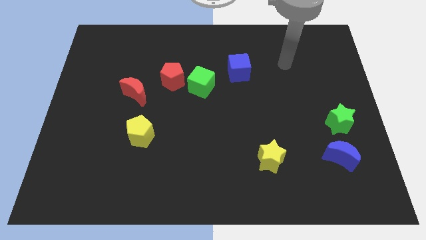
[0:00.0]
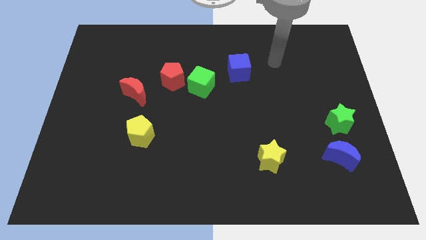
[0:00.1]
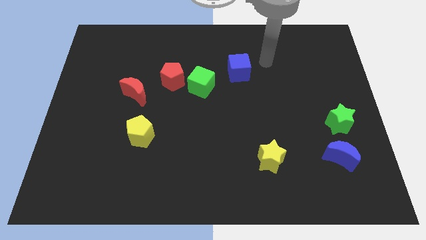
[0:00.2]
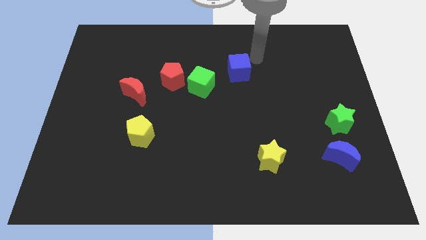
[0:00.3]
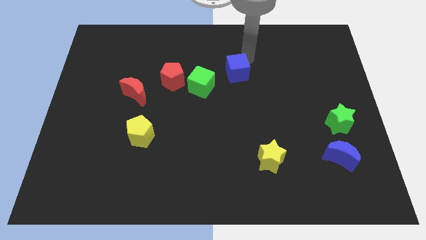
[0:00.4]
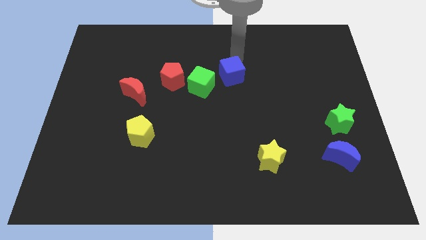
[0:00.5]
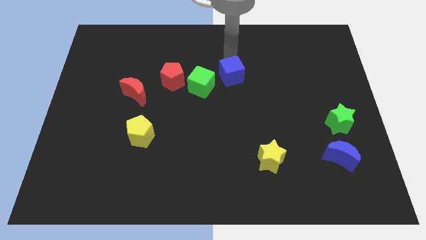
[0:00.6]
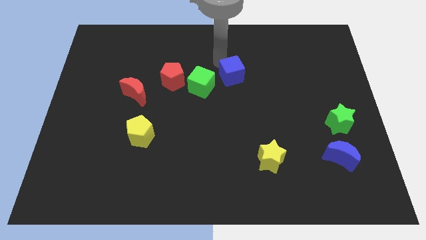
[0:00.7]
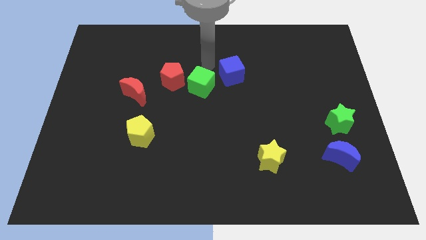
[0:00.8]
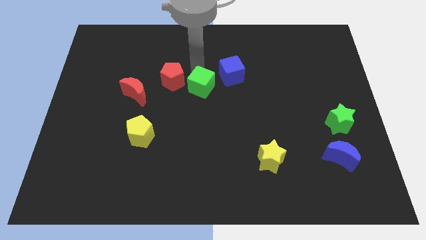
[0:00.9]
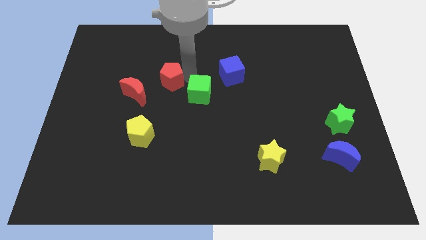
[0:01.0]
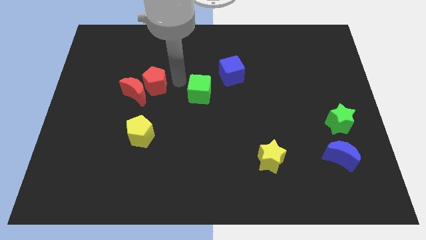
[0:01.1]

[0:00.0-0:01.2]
move the green cube away from the red pentagon

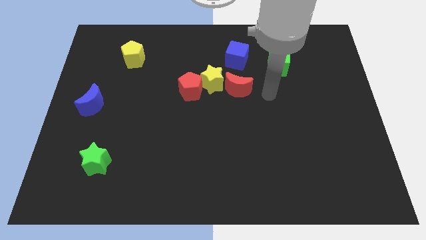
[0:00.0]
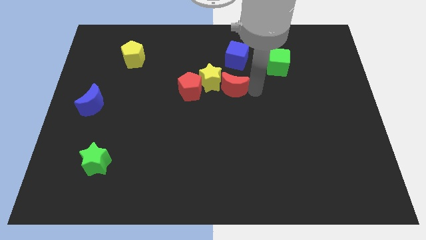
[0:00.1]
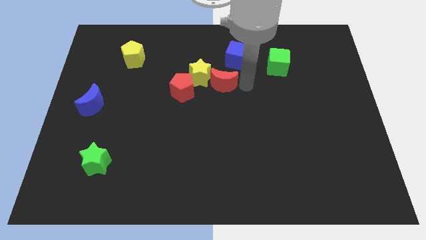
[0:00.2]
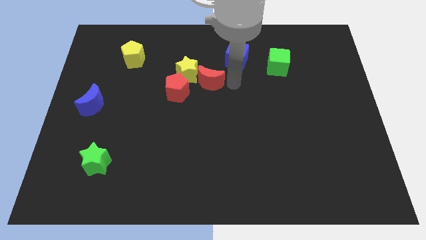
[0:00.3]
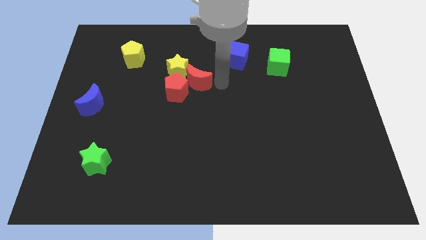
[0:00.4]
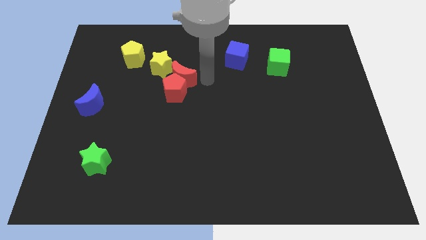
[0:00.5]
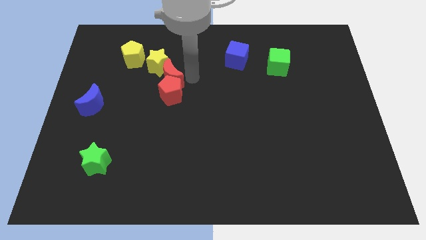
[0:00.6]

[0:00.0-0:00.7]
pull the red pentagon apart from the yellow star

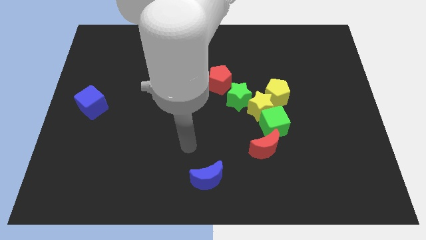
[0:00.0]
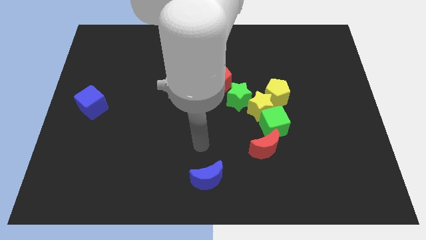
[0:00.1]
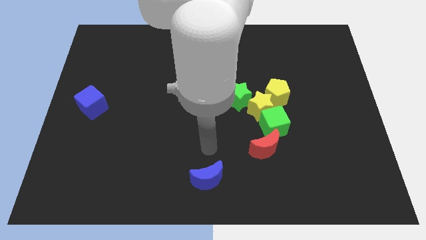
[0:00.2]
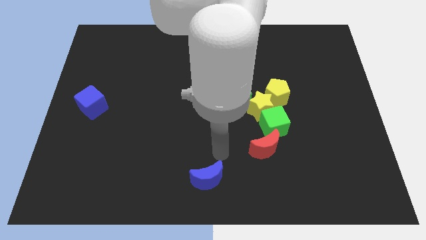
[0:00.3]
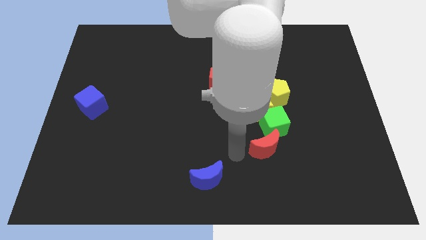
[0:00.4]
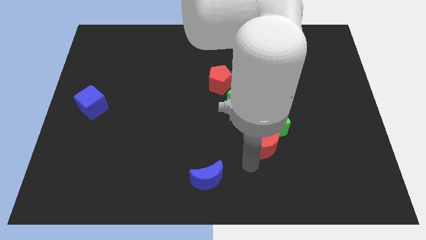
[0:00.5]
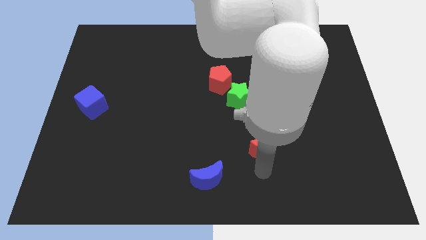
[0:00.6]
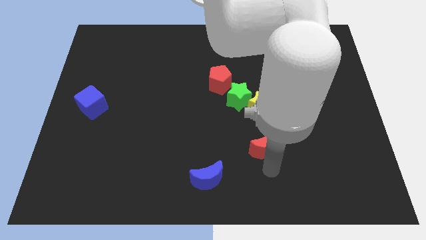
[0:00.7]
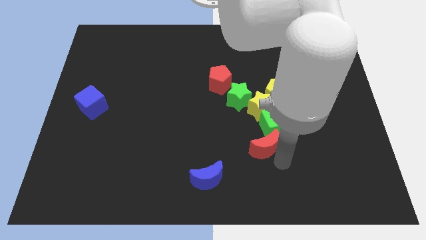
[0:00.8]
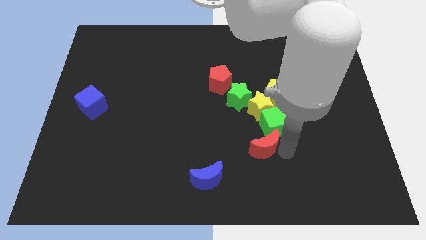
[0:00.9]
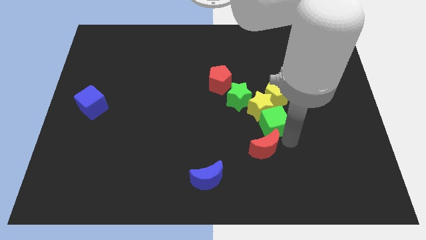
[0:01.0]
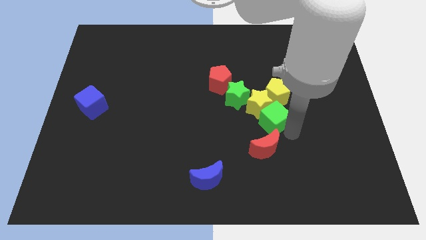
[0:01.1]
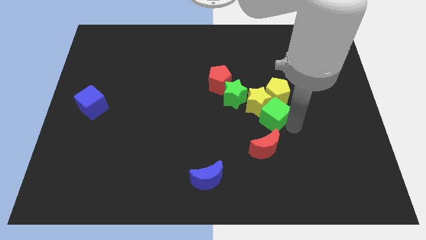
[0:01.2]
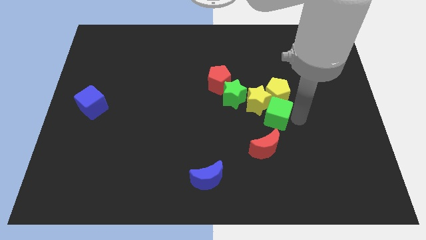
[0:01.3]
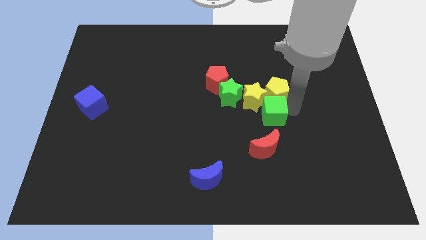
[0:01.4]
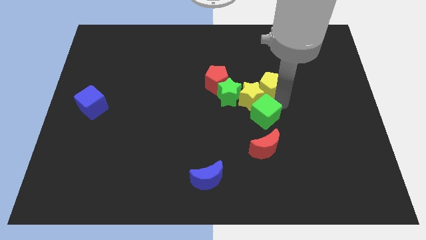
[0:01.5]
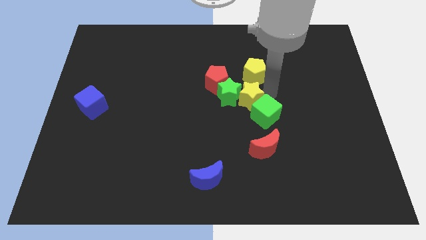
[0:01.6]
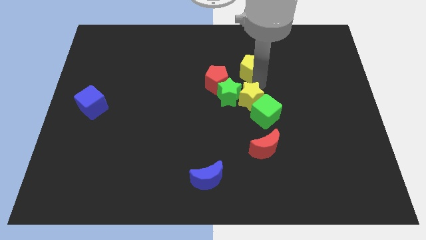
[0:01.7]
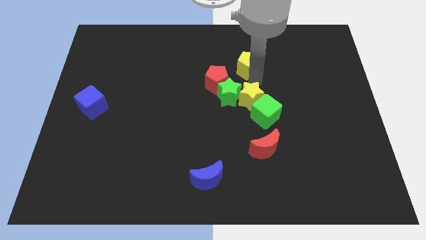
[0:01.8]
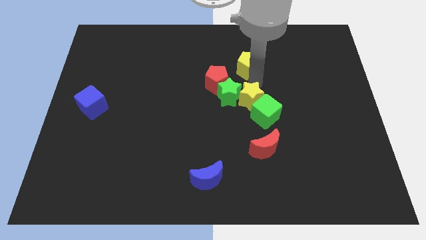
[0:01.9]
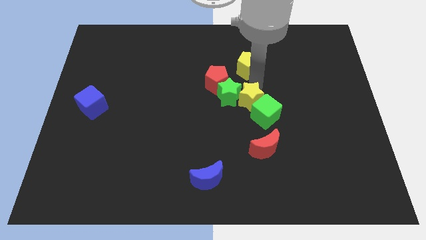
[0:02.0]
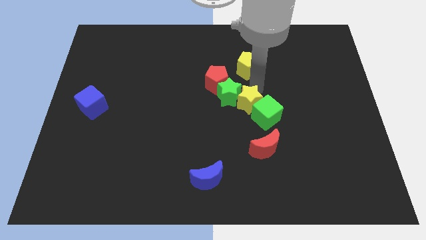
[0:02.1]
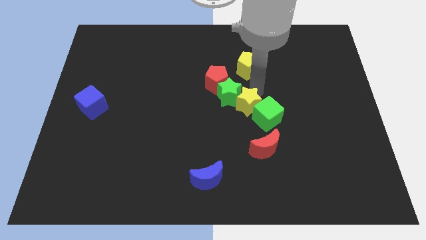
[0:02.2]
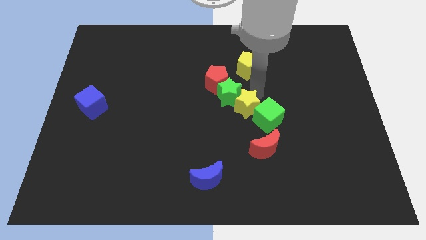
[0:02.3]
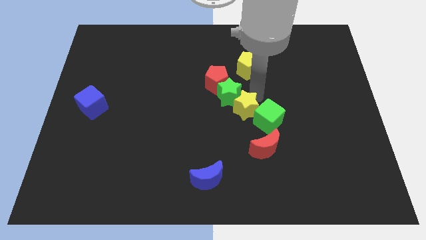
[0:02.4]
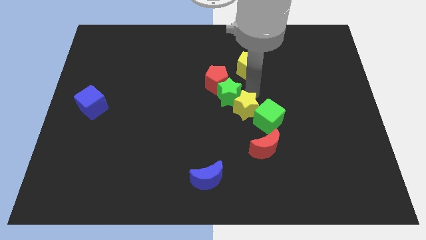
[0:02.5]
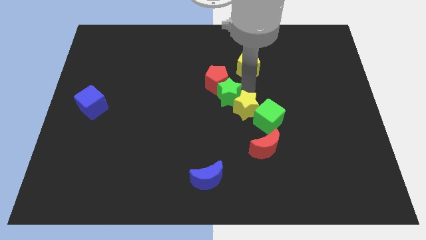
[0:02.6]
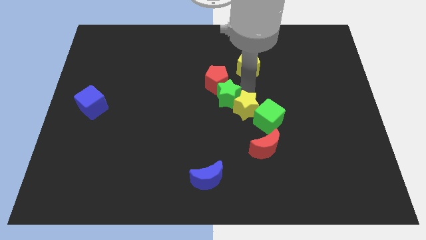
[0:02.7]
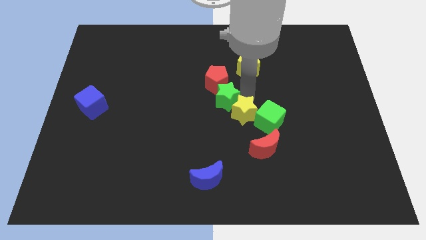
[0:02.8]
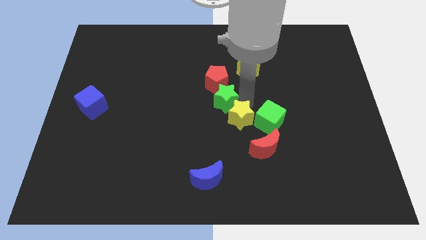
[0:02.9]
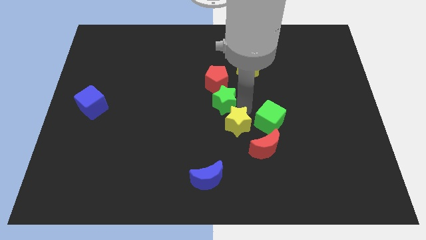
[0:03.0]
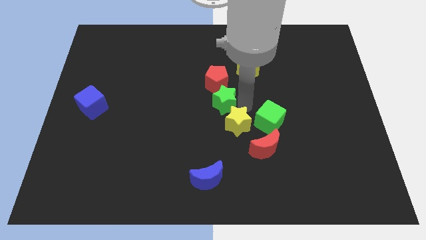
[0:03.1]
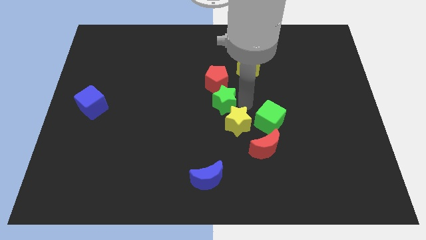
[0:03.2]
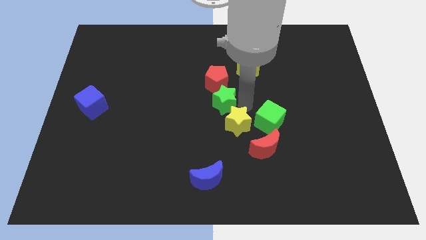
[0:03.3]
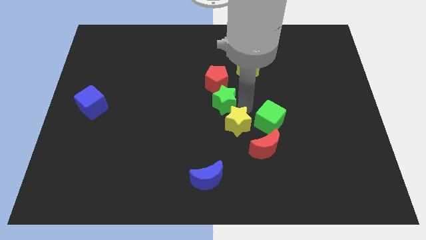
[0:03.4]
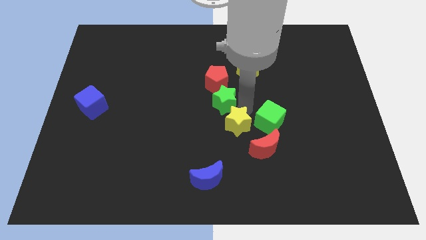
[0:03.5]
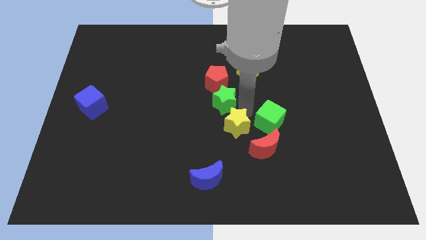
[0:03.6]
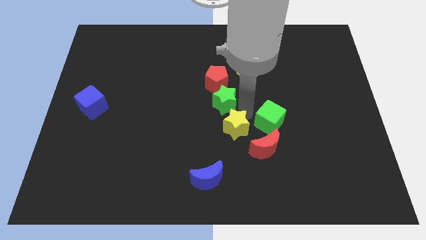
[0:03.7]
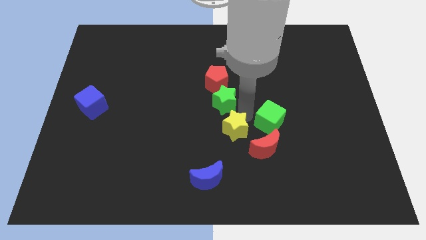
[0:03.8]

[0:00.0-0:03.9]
move the yellow star away from the green cube, yellow pentagon, and green star

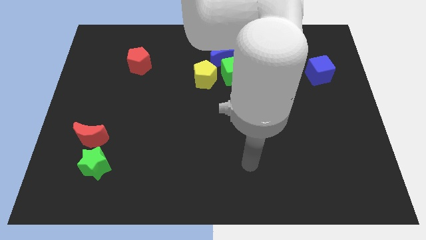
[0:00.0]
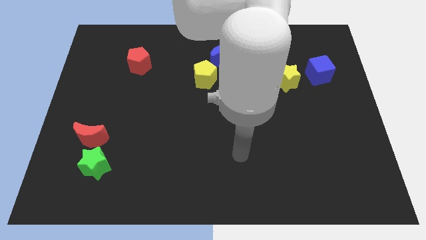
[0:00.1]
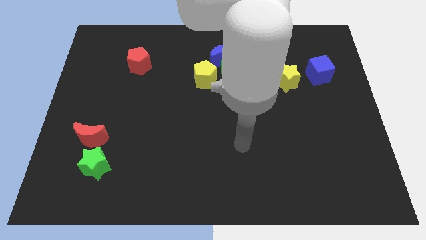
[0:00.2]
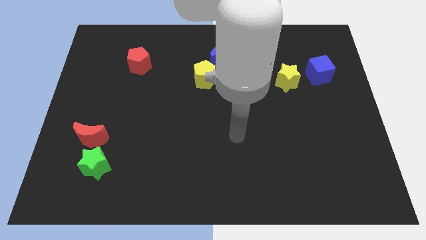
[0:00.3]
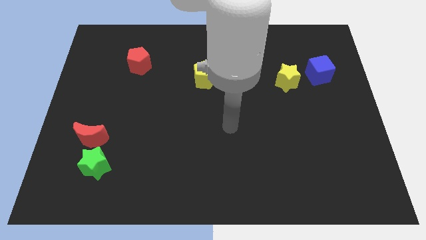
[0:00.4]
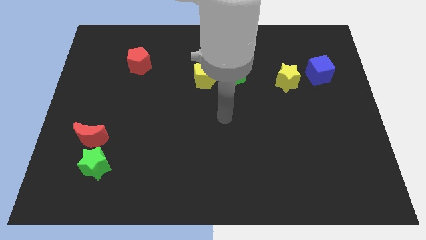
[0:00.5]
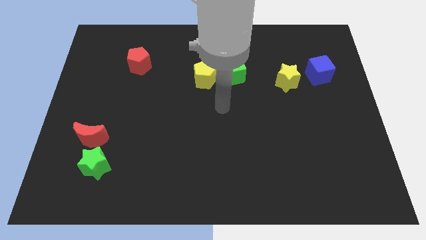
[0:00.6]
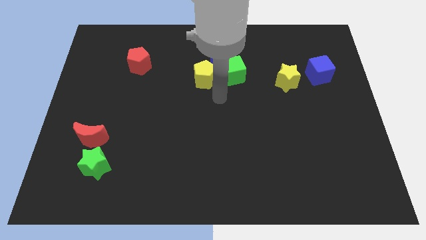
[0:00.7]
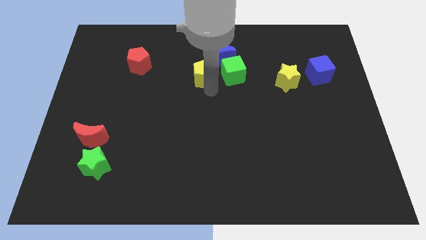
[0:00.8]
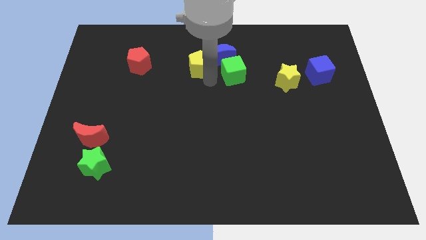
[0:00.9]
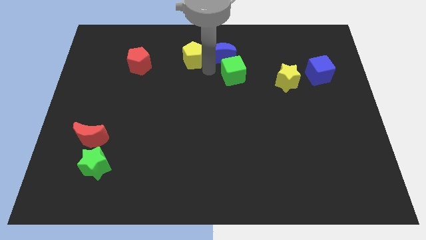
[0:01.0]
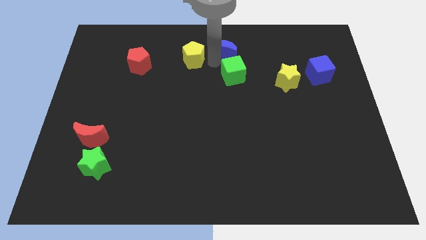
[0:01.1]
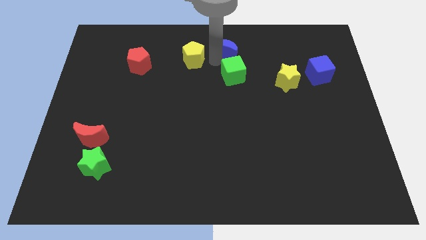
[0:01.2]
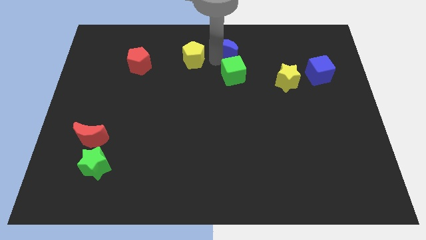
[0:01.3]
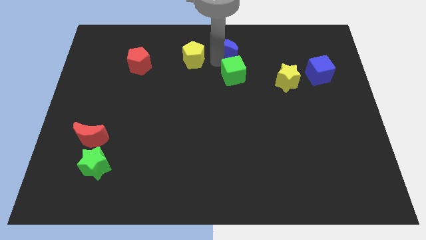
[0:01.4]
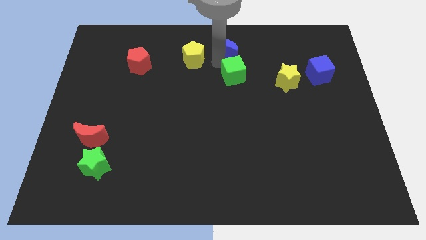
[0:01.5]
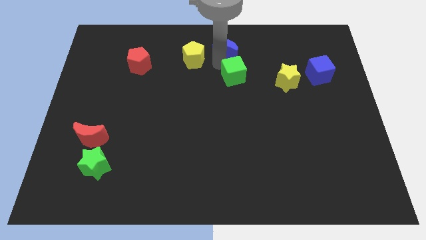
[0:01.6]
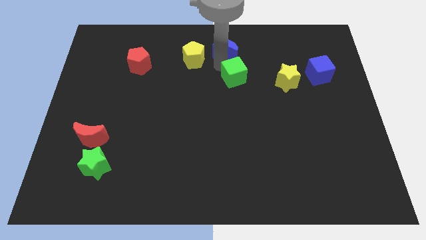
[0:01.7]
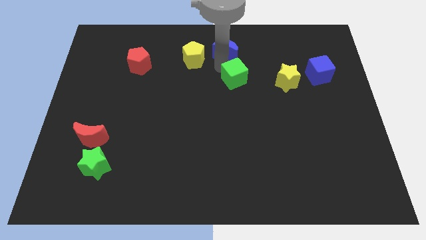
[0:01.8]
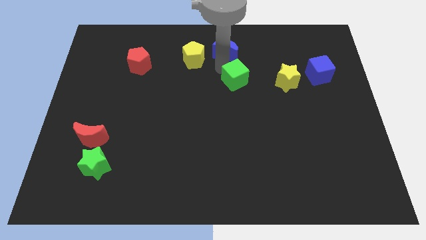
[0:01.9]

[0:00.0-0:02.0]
move the green cube away from the blue moon and yellow pentagon

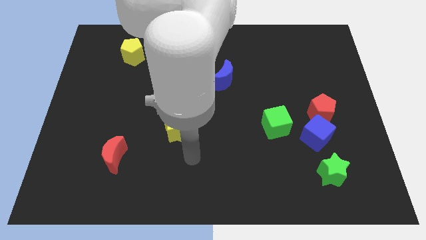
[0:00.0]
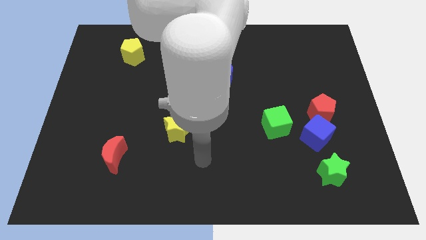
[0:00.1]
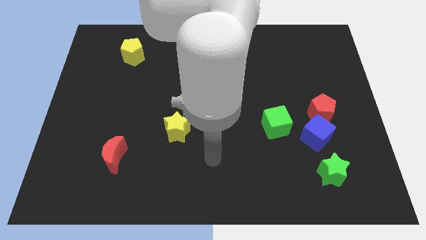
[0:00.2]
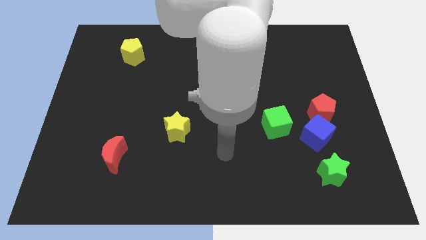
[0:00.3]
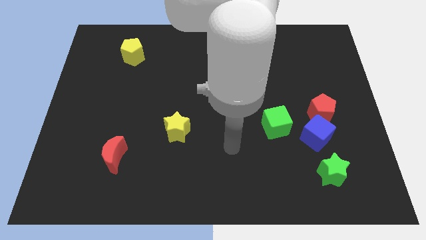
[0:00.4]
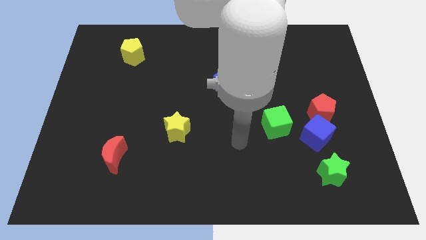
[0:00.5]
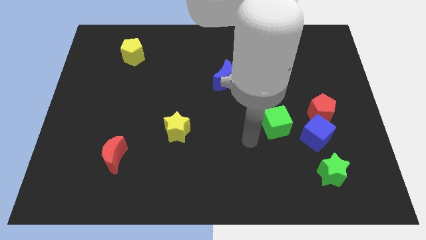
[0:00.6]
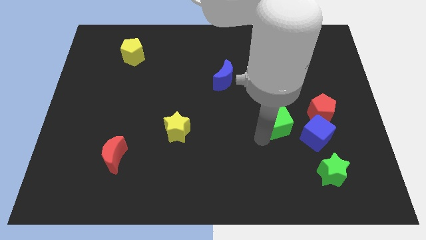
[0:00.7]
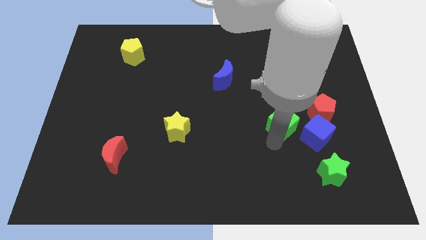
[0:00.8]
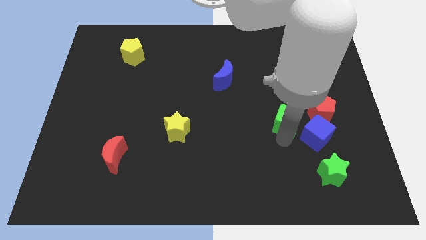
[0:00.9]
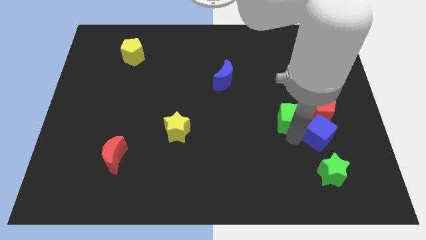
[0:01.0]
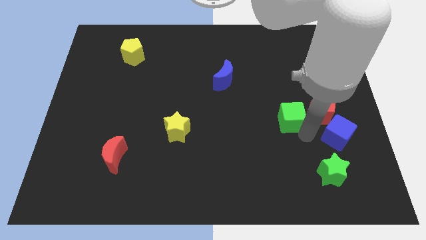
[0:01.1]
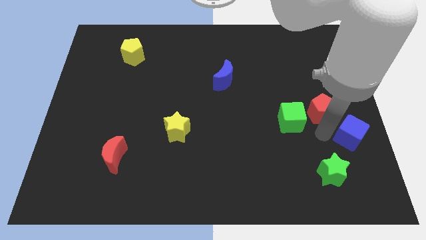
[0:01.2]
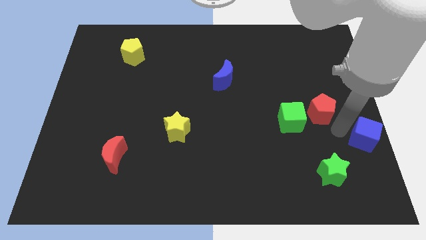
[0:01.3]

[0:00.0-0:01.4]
pull the red pentagon apart from the blue cube

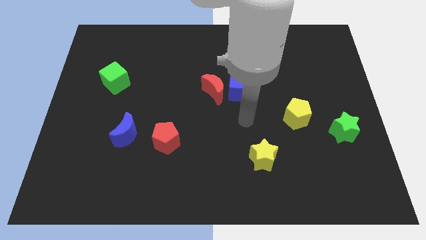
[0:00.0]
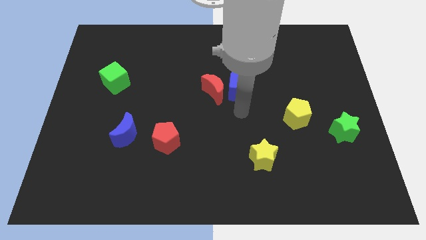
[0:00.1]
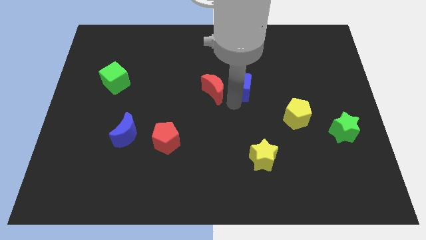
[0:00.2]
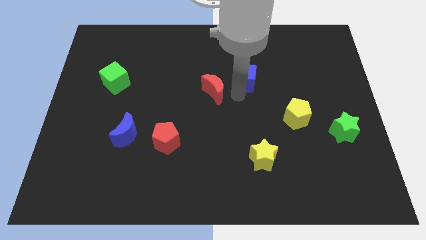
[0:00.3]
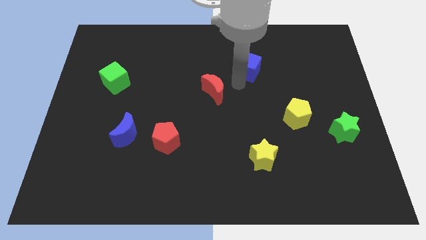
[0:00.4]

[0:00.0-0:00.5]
move the red moon away from the blue cube
